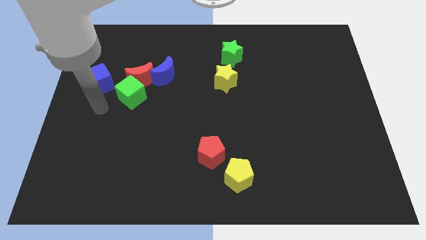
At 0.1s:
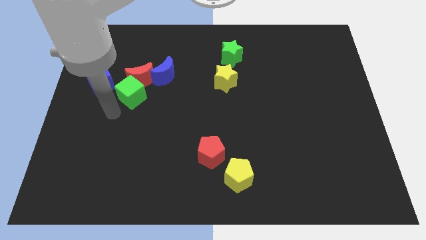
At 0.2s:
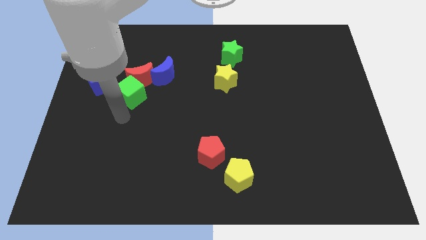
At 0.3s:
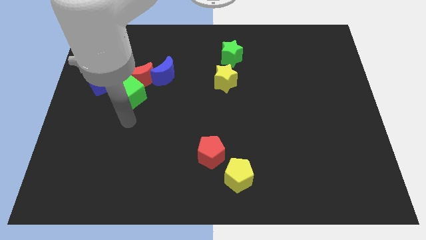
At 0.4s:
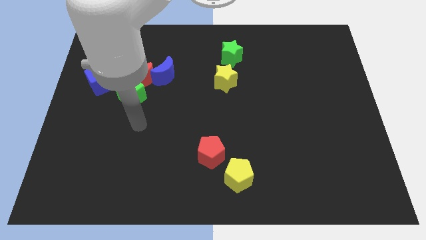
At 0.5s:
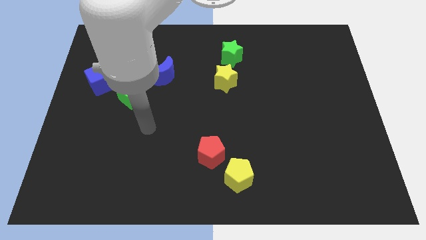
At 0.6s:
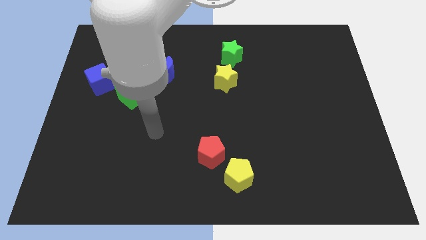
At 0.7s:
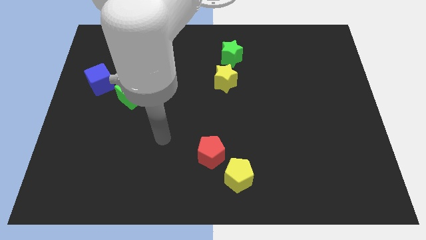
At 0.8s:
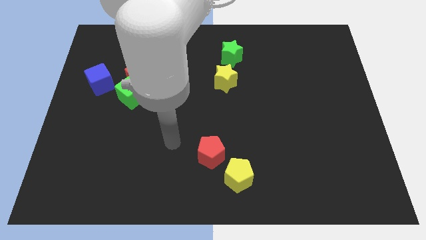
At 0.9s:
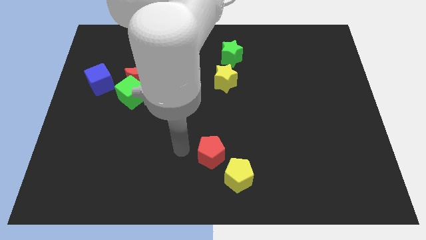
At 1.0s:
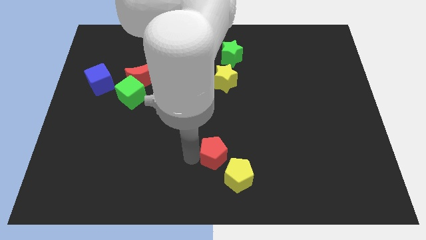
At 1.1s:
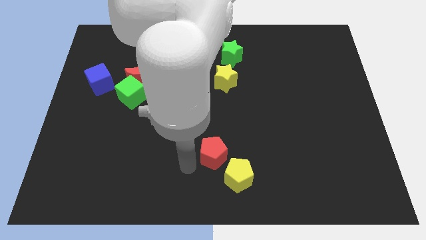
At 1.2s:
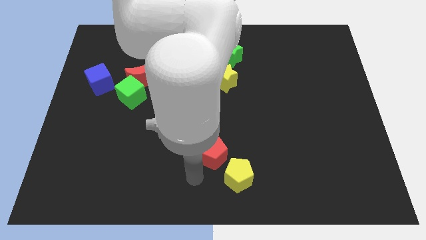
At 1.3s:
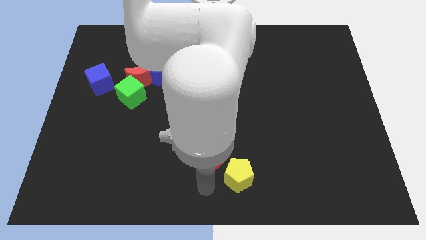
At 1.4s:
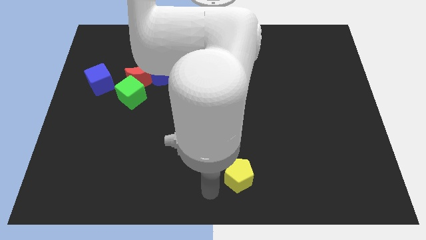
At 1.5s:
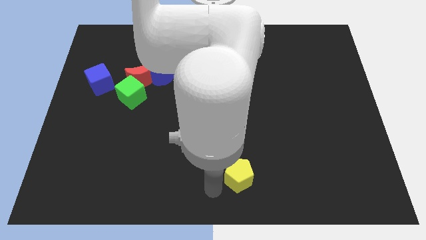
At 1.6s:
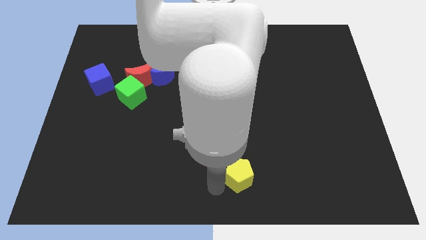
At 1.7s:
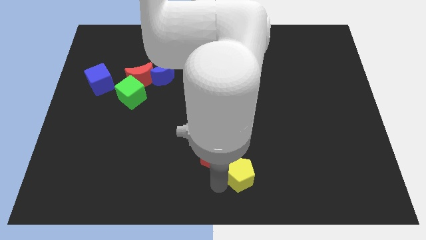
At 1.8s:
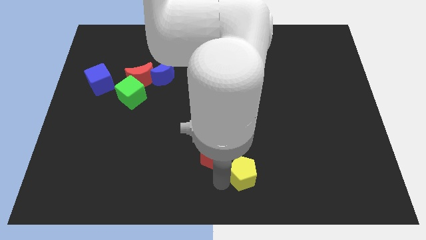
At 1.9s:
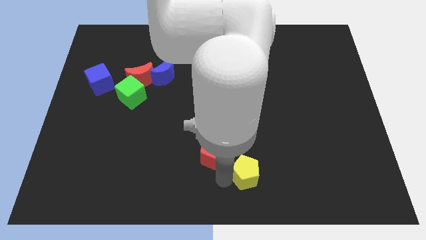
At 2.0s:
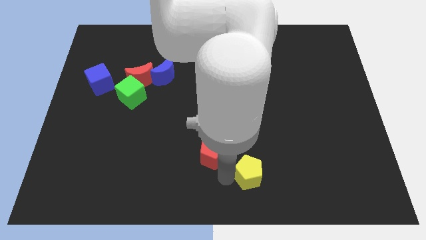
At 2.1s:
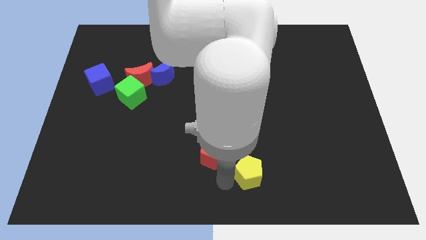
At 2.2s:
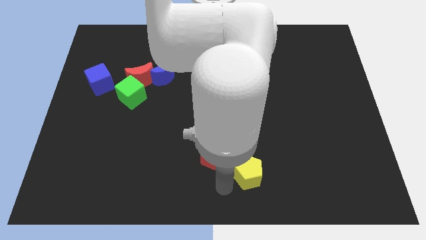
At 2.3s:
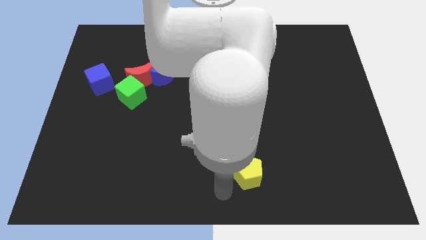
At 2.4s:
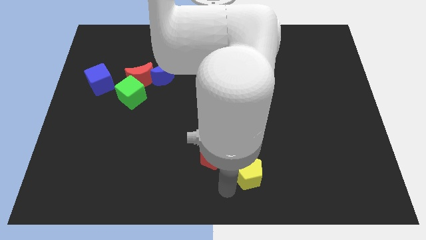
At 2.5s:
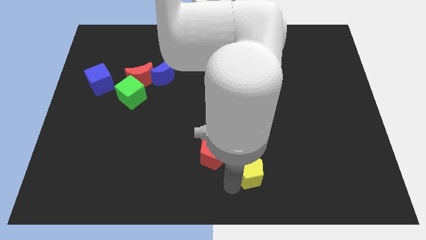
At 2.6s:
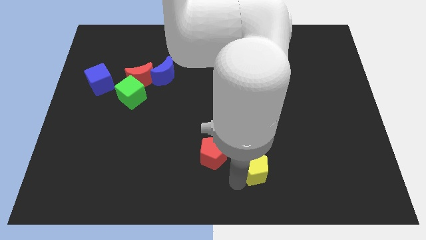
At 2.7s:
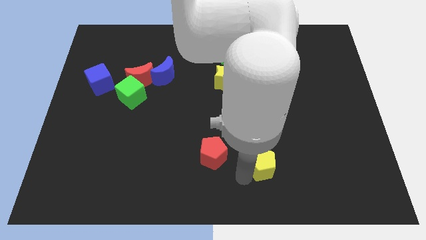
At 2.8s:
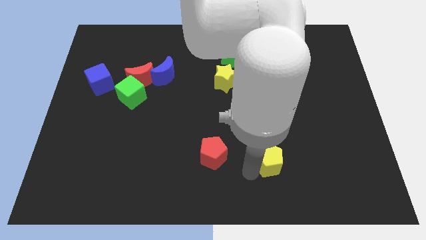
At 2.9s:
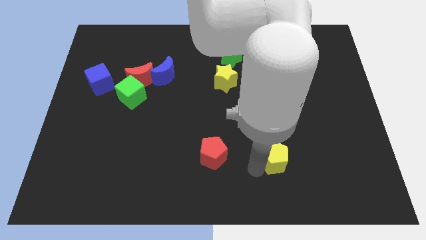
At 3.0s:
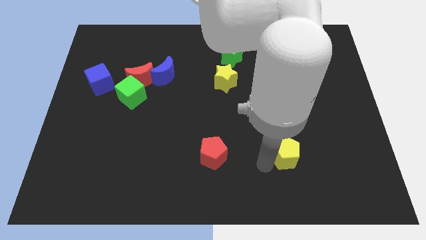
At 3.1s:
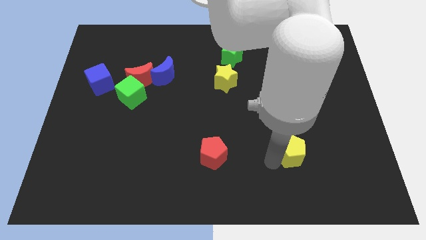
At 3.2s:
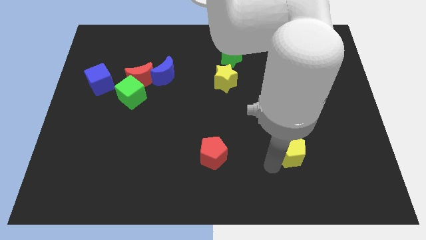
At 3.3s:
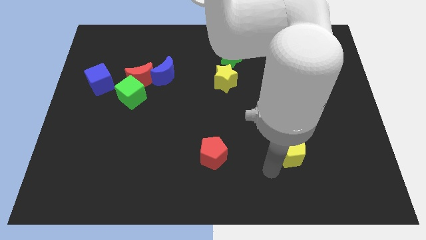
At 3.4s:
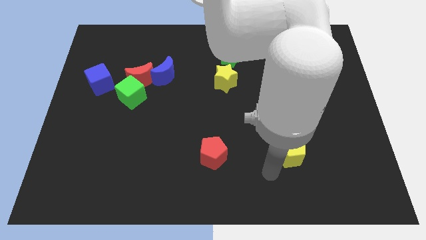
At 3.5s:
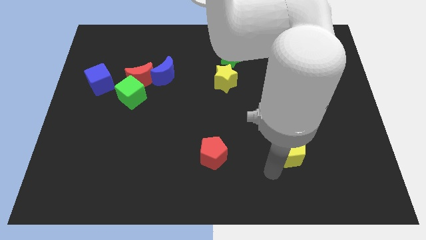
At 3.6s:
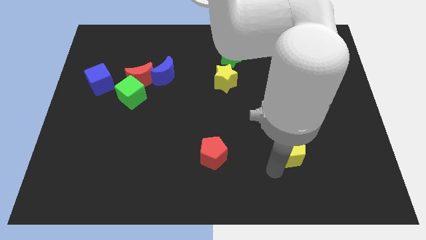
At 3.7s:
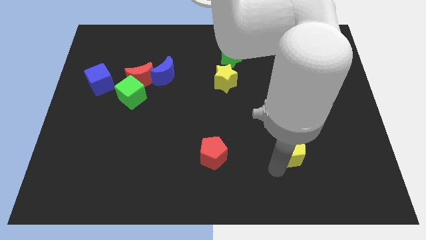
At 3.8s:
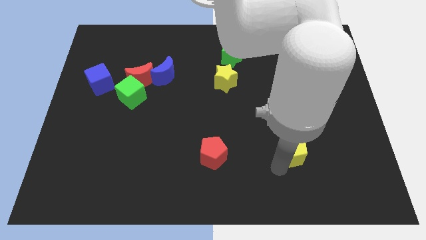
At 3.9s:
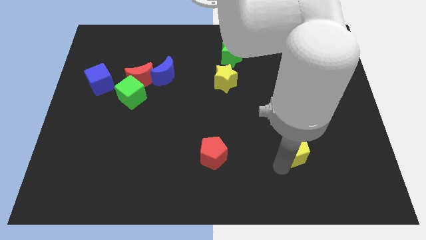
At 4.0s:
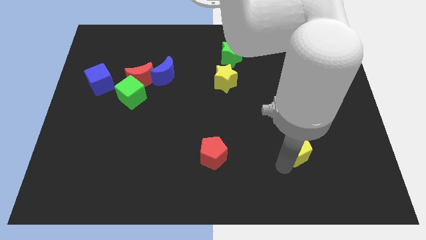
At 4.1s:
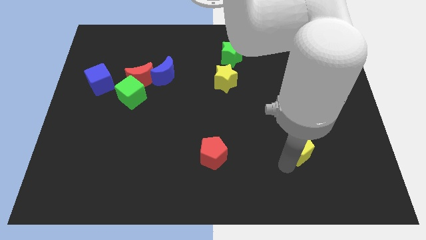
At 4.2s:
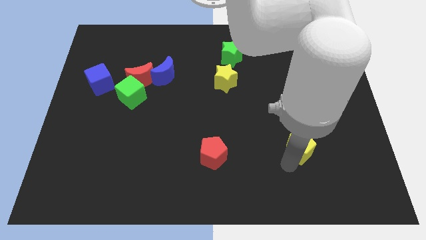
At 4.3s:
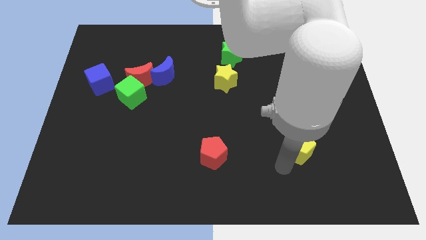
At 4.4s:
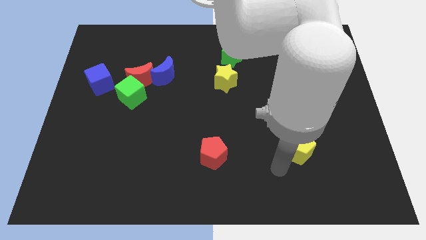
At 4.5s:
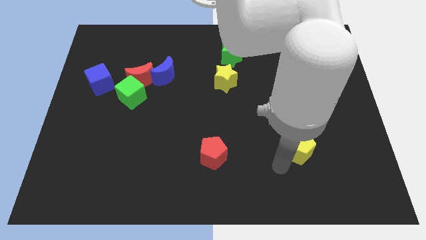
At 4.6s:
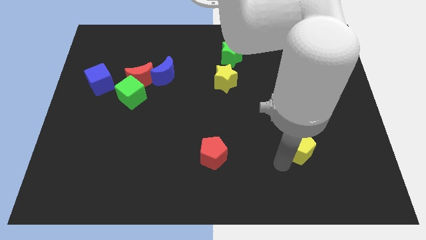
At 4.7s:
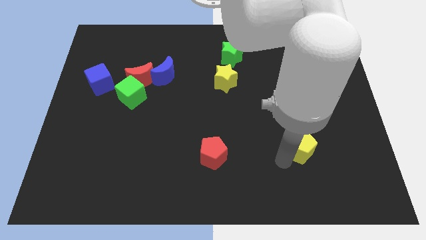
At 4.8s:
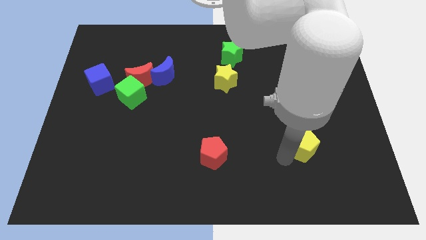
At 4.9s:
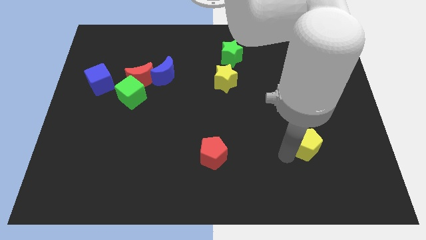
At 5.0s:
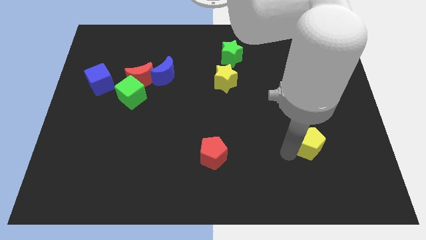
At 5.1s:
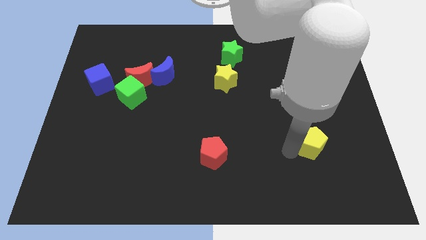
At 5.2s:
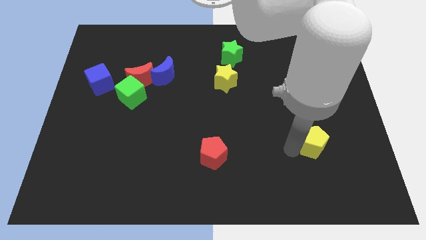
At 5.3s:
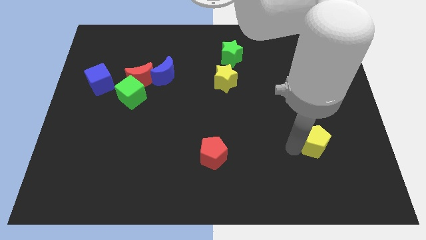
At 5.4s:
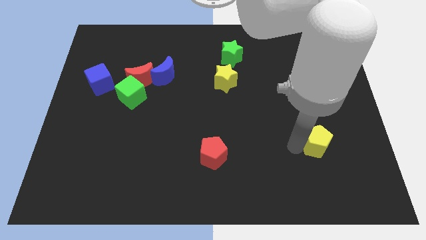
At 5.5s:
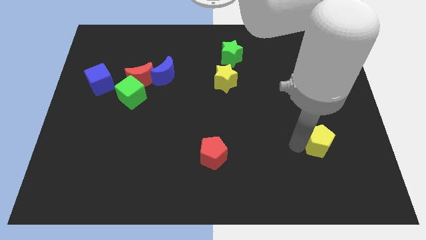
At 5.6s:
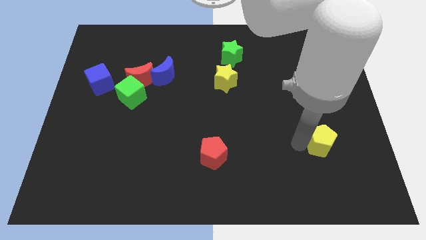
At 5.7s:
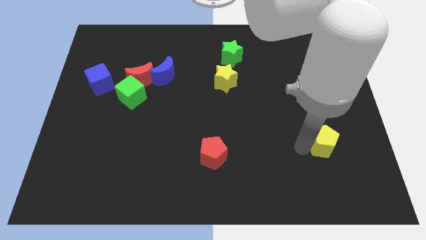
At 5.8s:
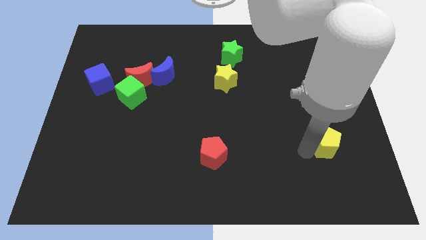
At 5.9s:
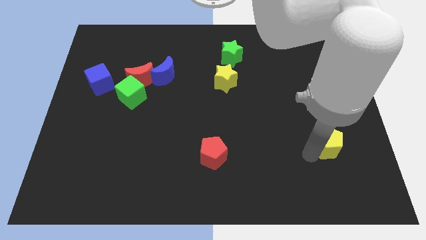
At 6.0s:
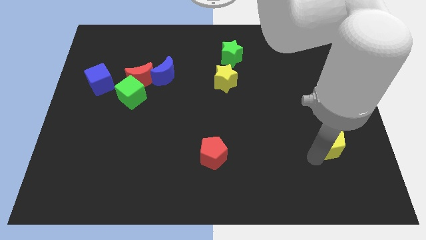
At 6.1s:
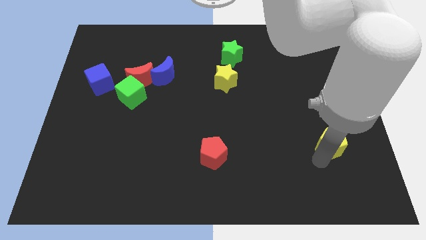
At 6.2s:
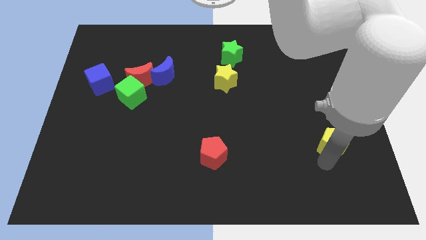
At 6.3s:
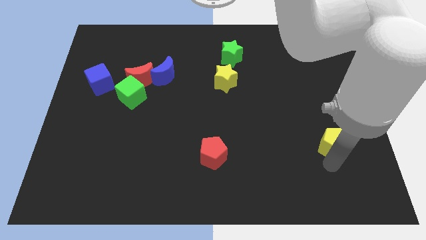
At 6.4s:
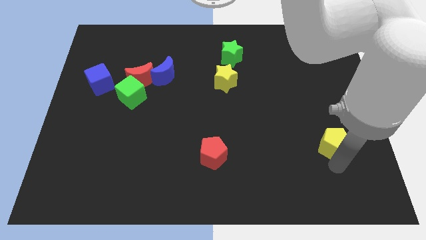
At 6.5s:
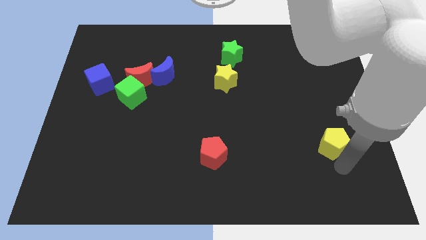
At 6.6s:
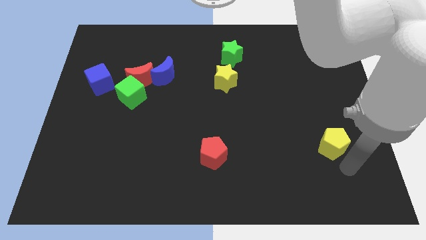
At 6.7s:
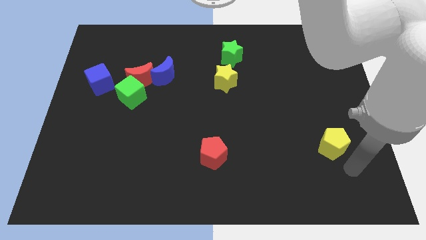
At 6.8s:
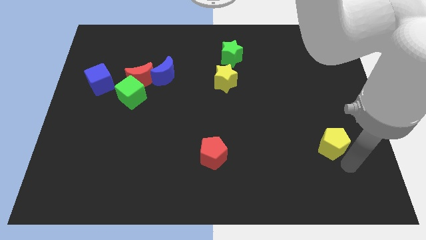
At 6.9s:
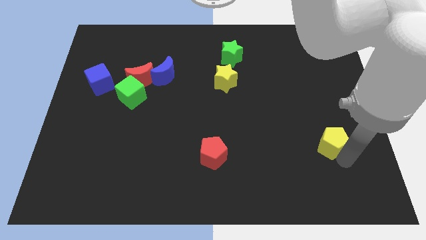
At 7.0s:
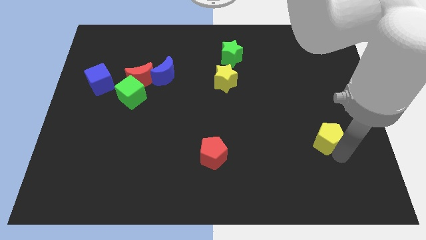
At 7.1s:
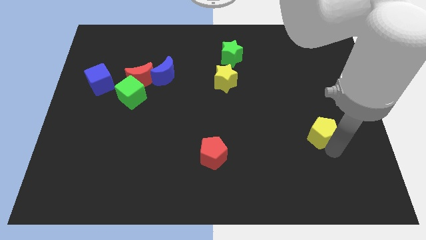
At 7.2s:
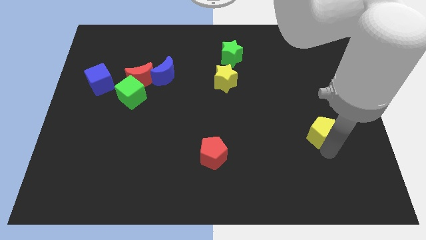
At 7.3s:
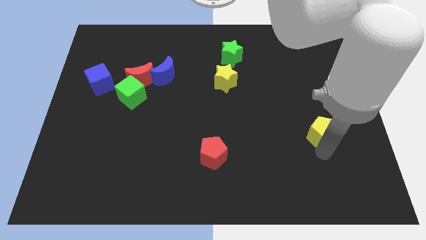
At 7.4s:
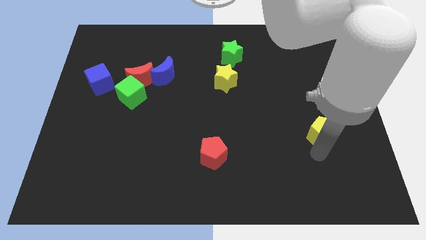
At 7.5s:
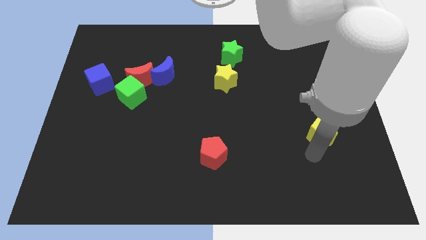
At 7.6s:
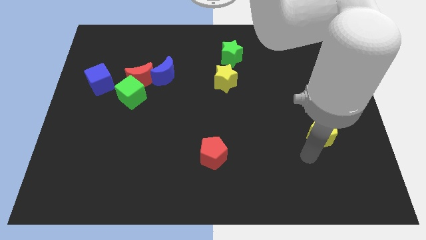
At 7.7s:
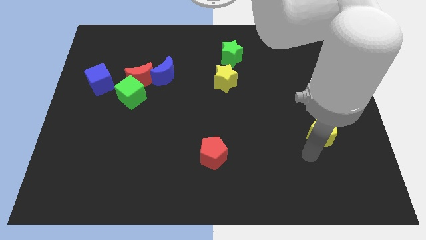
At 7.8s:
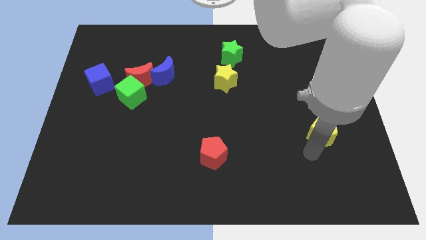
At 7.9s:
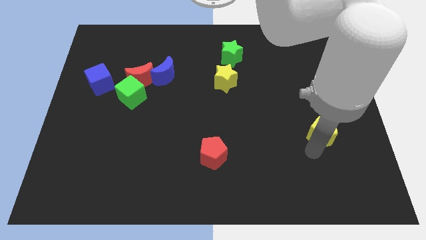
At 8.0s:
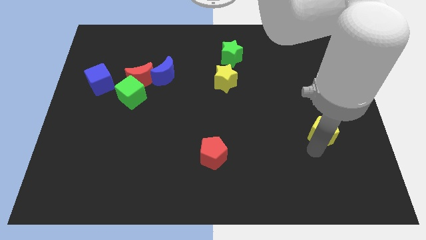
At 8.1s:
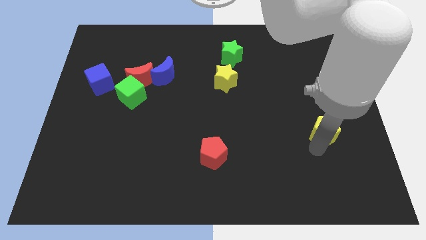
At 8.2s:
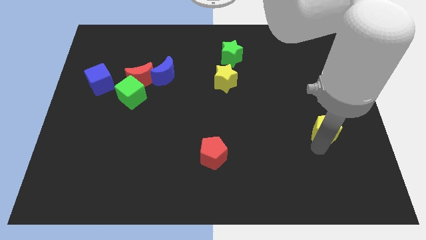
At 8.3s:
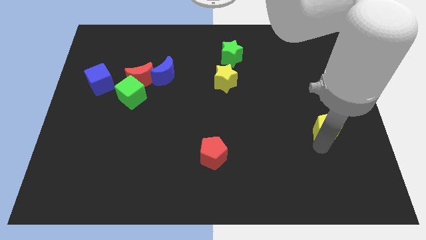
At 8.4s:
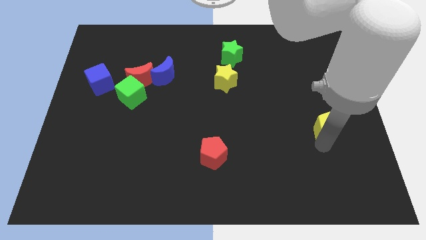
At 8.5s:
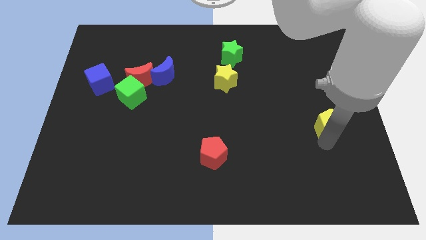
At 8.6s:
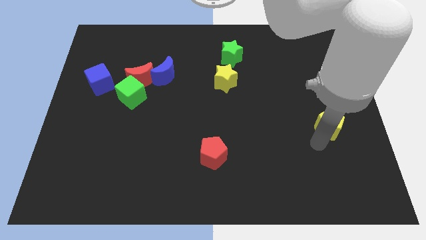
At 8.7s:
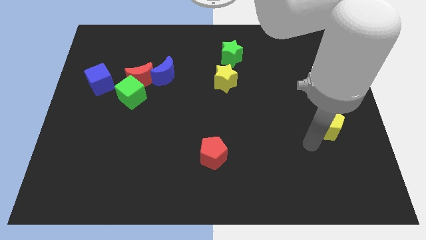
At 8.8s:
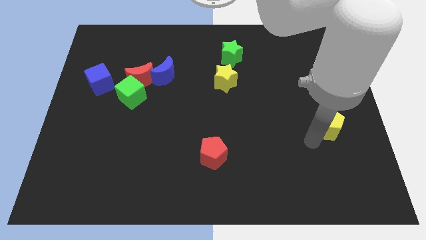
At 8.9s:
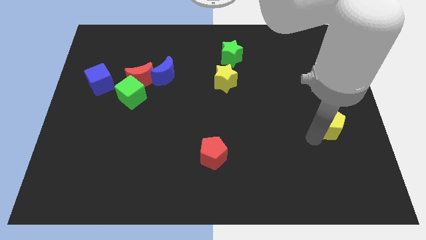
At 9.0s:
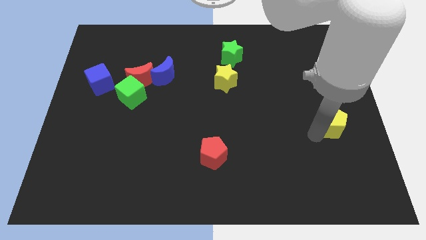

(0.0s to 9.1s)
push the yellow pentagon to the center right
